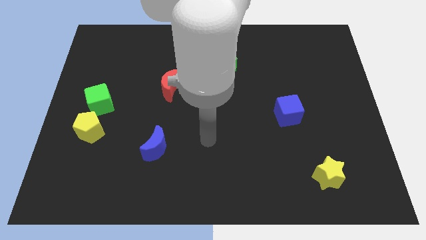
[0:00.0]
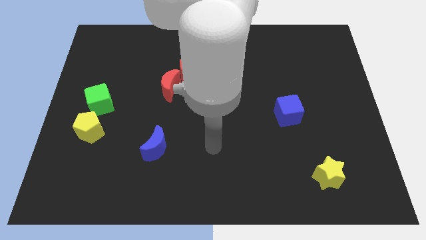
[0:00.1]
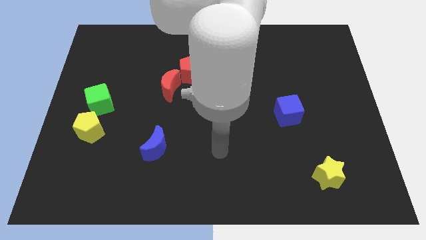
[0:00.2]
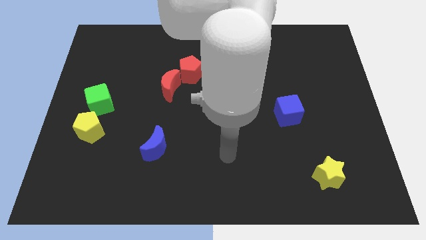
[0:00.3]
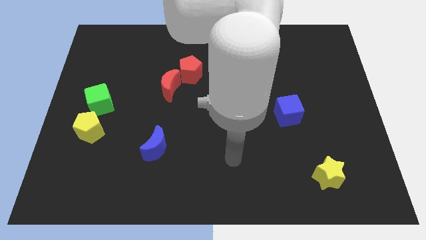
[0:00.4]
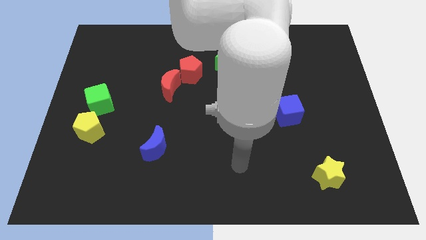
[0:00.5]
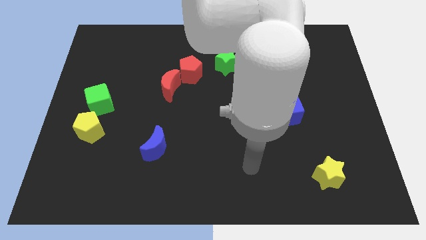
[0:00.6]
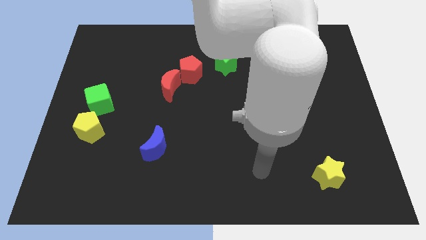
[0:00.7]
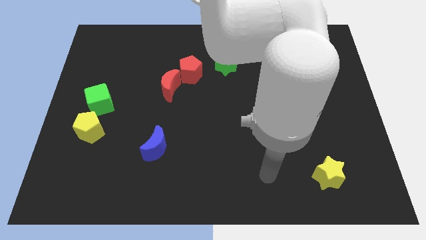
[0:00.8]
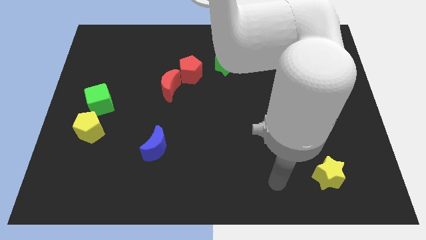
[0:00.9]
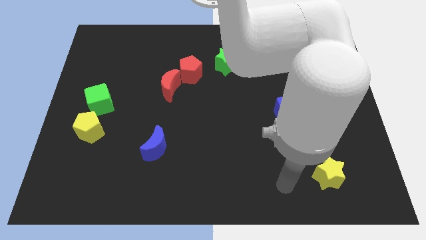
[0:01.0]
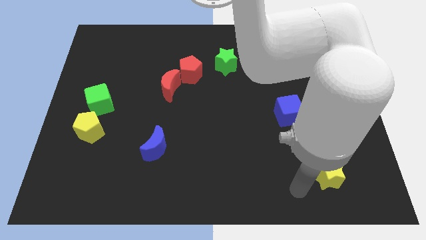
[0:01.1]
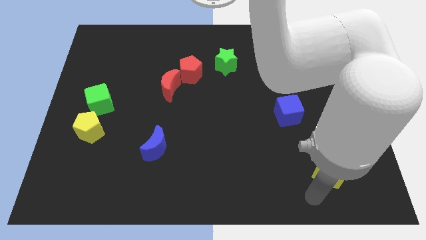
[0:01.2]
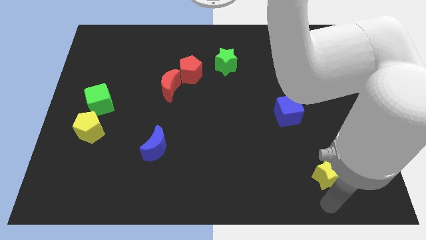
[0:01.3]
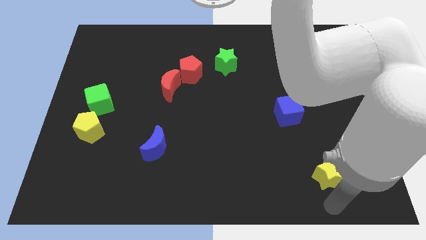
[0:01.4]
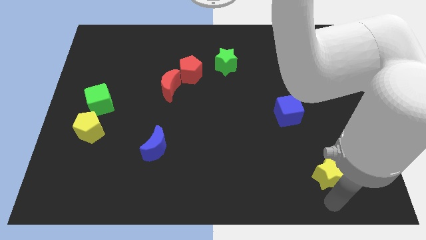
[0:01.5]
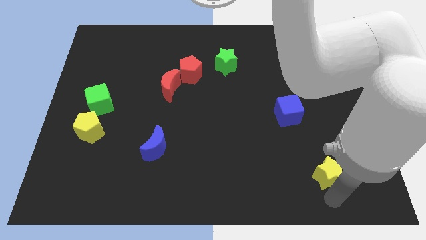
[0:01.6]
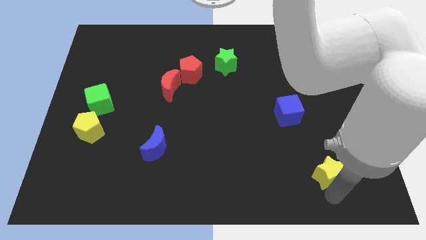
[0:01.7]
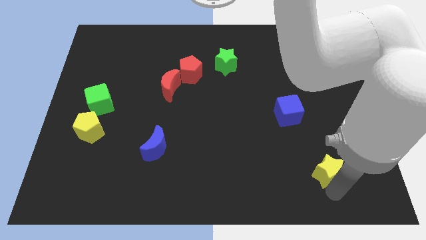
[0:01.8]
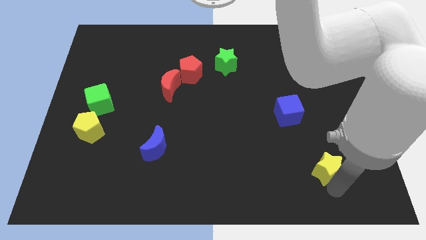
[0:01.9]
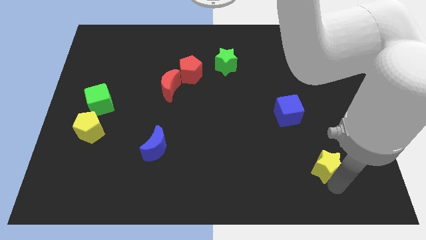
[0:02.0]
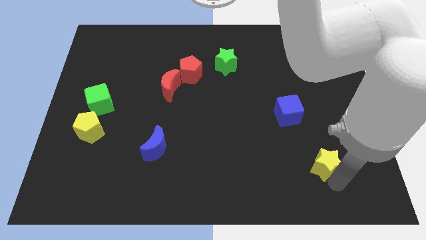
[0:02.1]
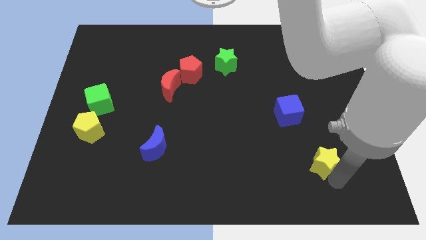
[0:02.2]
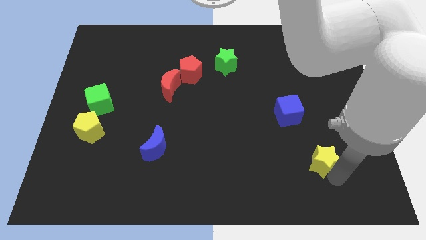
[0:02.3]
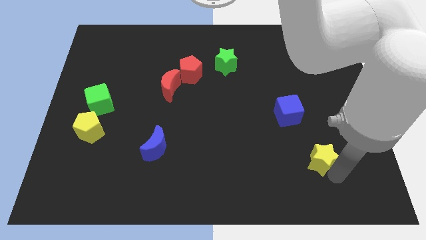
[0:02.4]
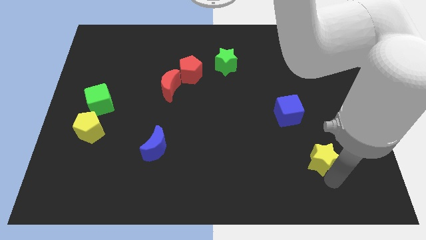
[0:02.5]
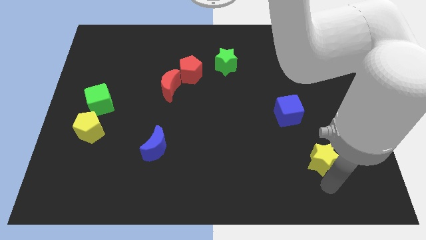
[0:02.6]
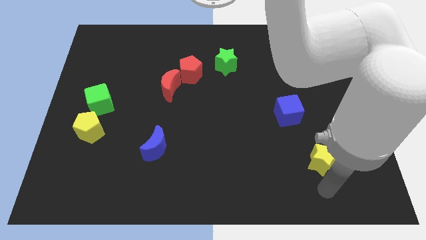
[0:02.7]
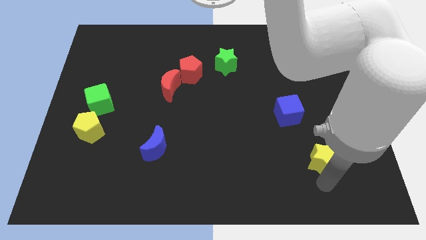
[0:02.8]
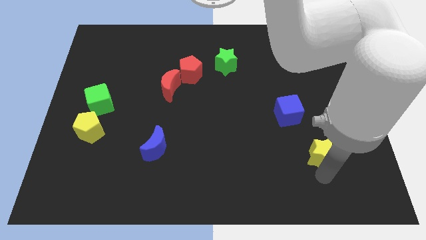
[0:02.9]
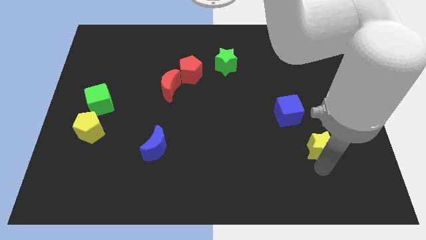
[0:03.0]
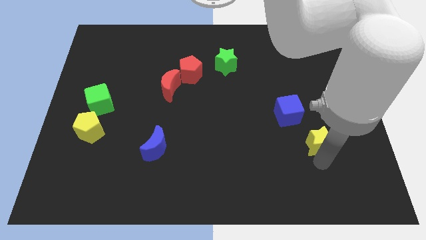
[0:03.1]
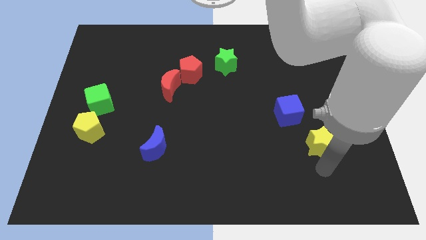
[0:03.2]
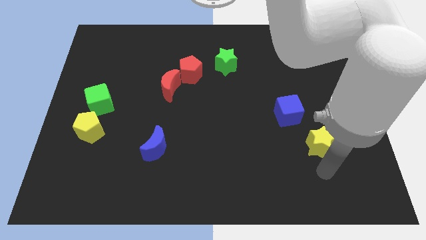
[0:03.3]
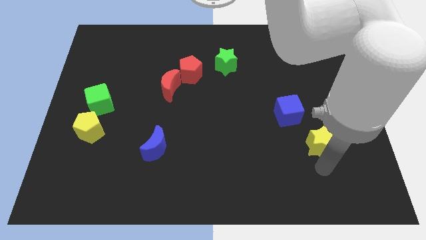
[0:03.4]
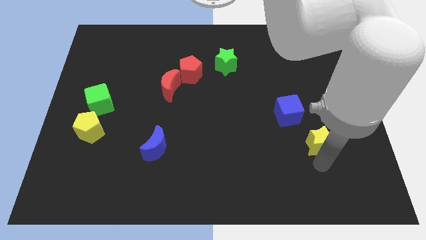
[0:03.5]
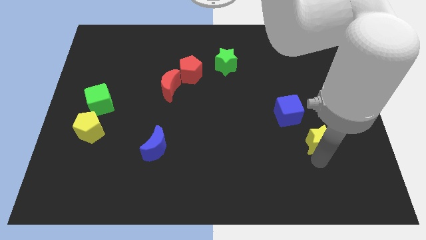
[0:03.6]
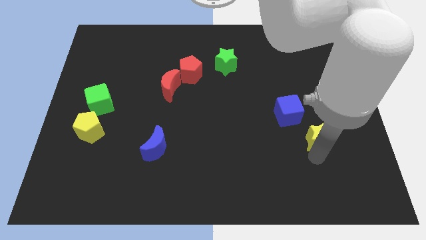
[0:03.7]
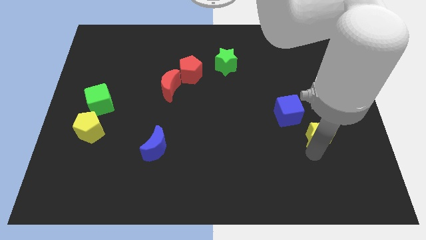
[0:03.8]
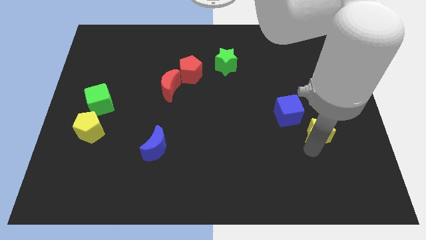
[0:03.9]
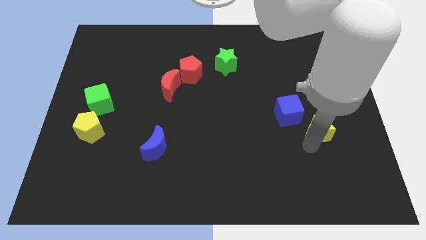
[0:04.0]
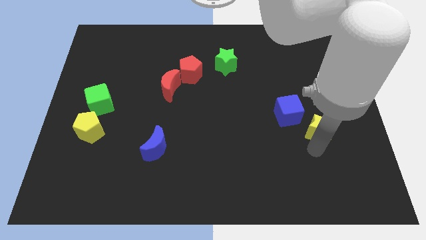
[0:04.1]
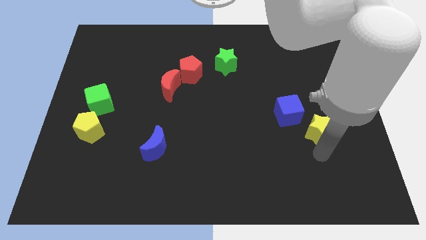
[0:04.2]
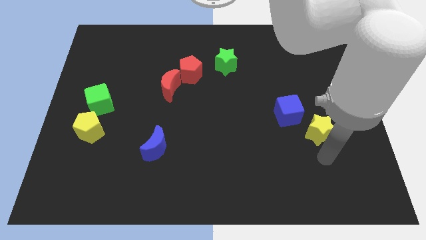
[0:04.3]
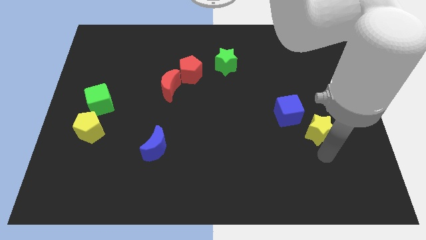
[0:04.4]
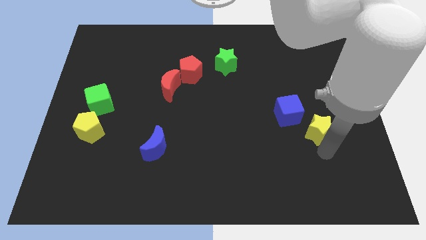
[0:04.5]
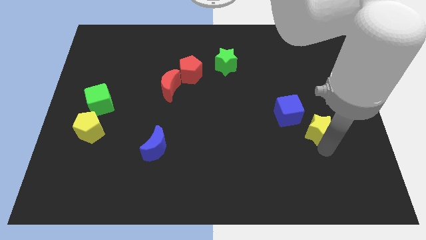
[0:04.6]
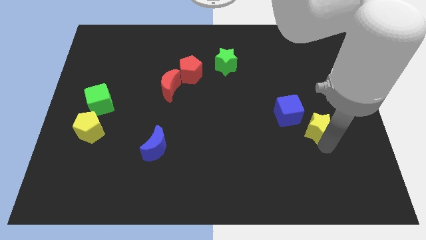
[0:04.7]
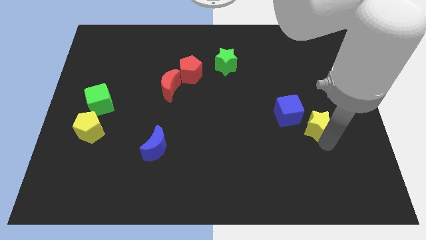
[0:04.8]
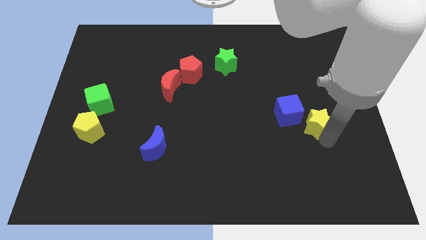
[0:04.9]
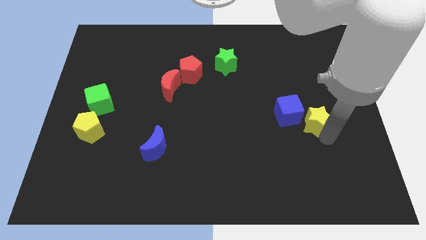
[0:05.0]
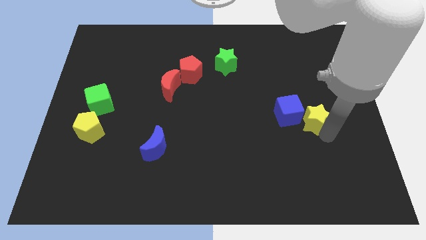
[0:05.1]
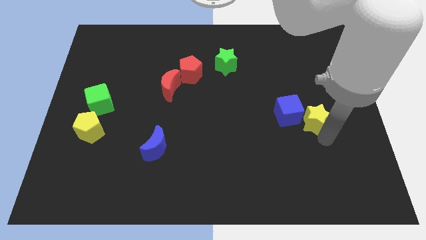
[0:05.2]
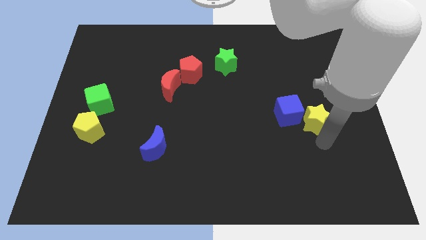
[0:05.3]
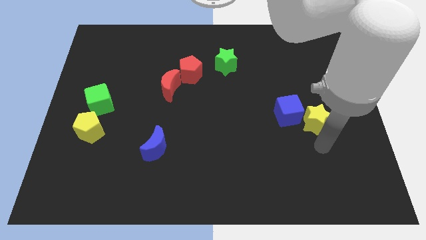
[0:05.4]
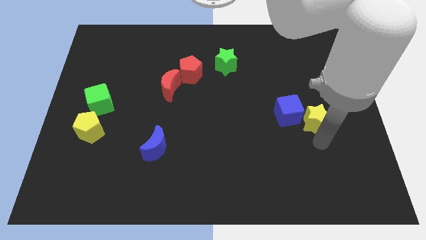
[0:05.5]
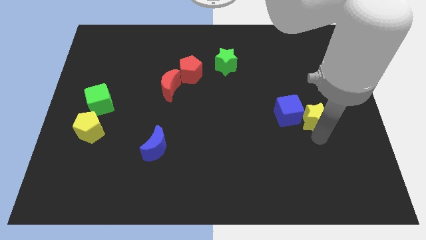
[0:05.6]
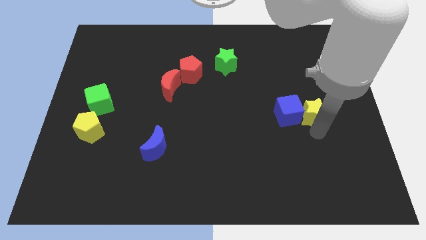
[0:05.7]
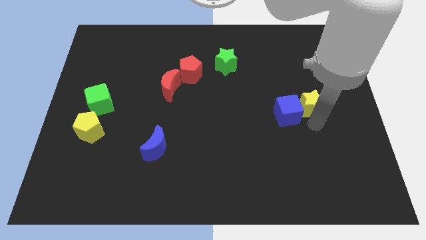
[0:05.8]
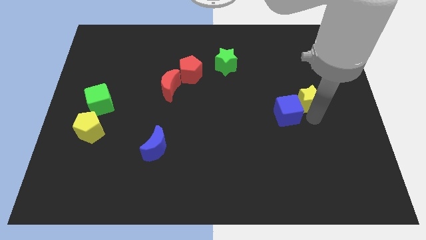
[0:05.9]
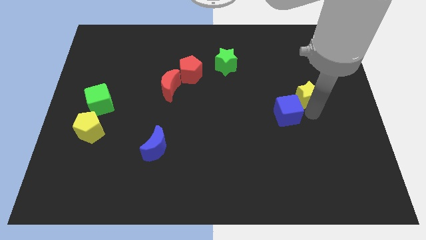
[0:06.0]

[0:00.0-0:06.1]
push the yellow star upwards

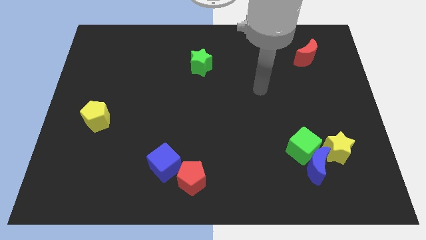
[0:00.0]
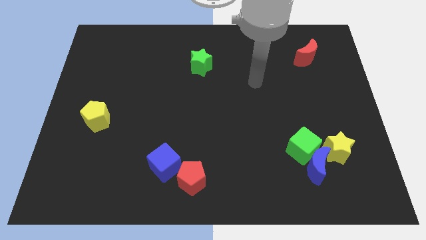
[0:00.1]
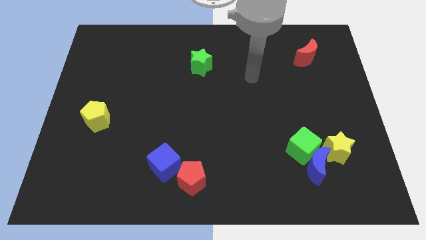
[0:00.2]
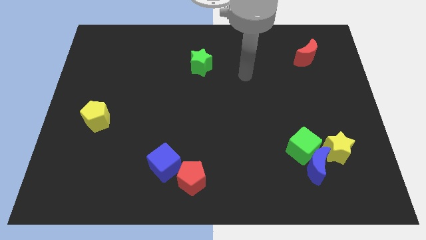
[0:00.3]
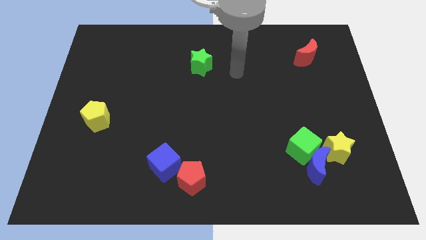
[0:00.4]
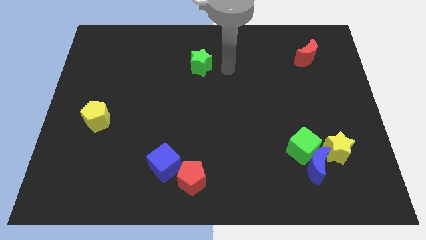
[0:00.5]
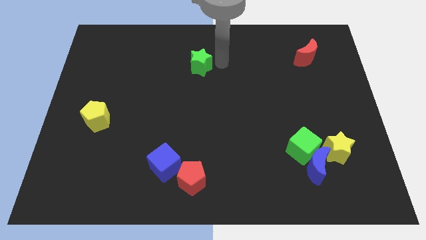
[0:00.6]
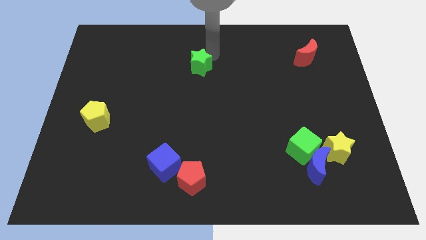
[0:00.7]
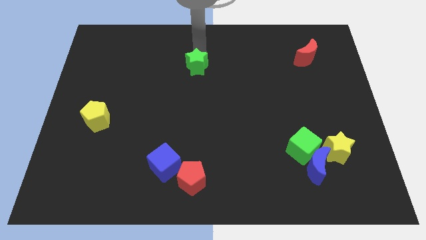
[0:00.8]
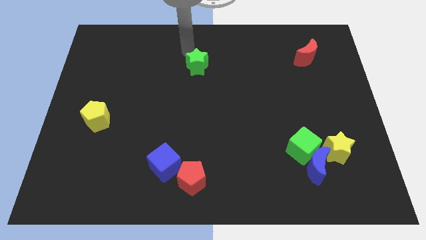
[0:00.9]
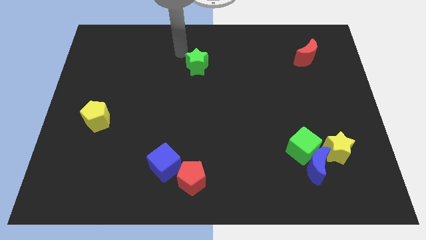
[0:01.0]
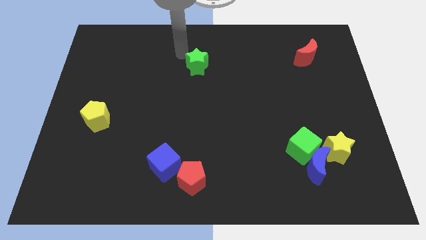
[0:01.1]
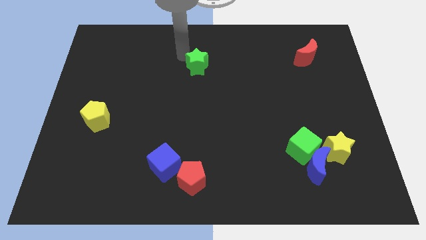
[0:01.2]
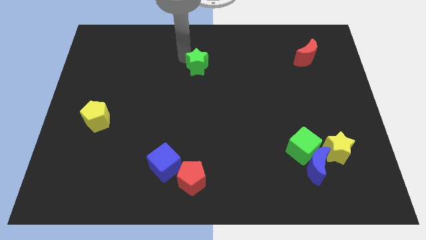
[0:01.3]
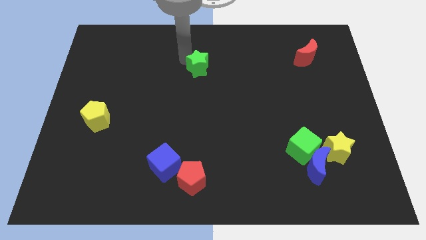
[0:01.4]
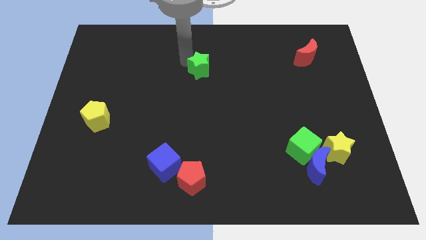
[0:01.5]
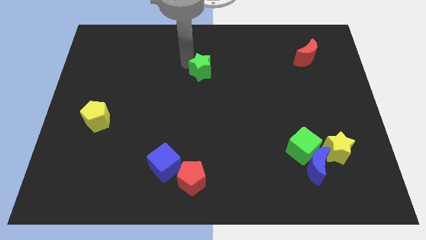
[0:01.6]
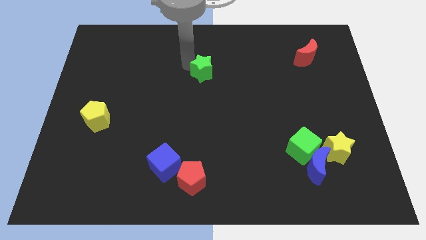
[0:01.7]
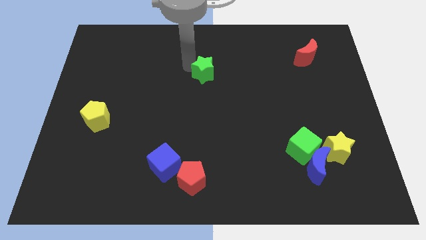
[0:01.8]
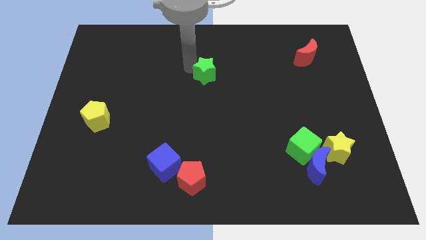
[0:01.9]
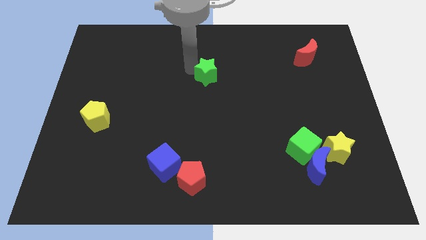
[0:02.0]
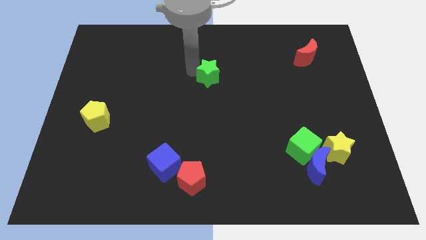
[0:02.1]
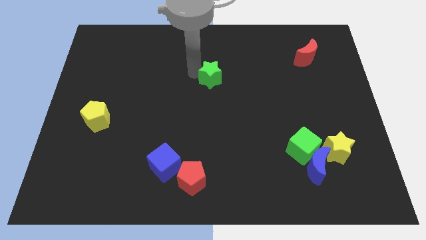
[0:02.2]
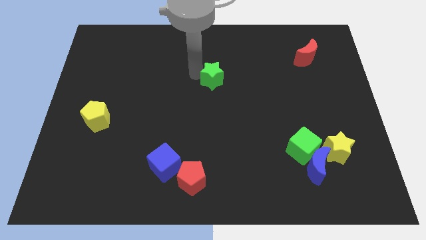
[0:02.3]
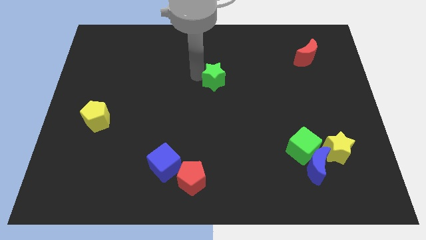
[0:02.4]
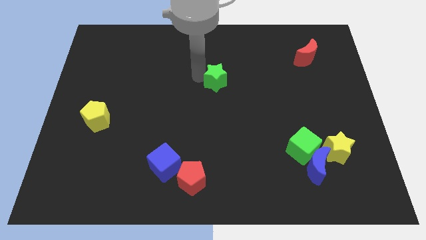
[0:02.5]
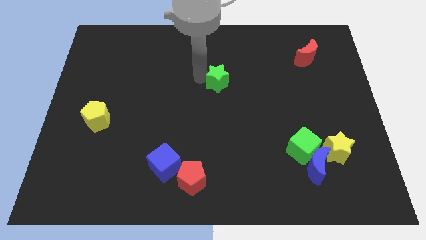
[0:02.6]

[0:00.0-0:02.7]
push the green star a little down and to the right
